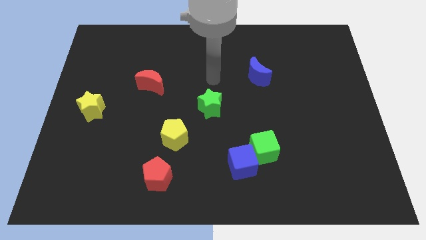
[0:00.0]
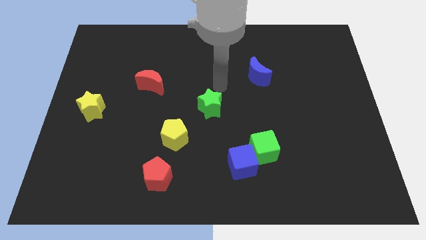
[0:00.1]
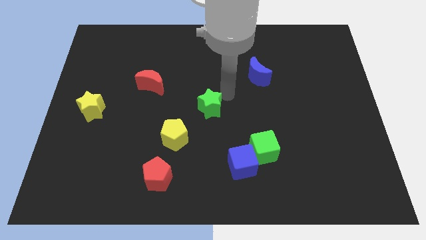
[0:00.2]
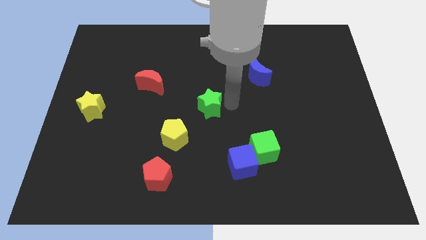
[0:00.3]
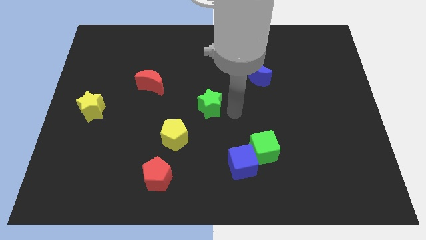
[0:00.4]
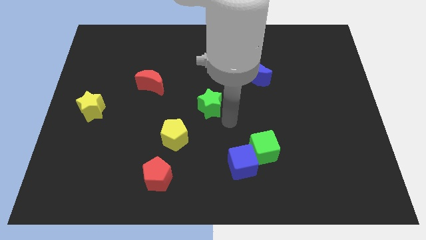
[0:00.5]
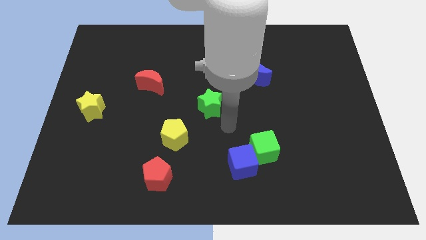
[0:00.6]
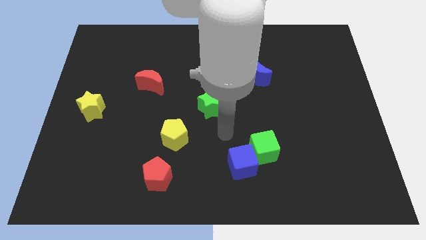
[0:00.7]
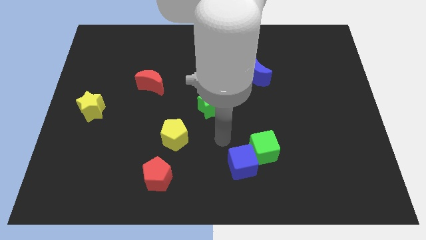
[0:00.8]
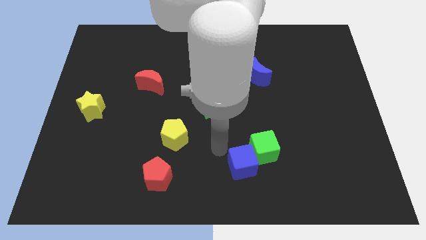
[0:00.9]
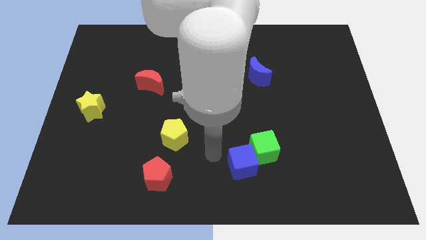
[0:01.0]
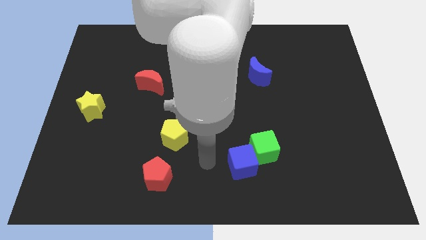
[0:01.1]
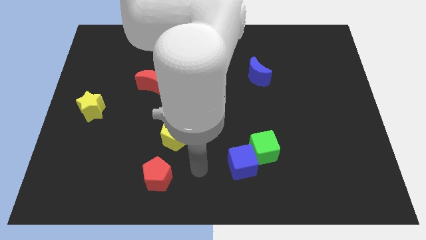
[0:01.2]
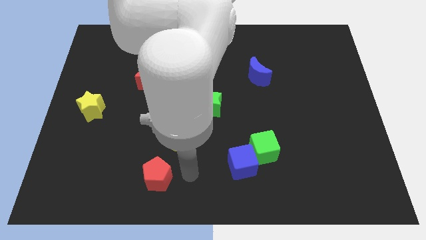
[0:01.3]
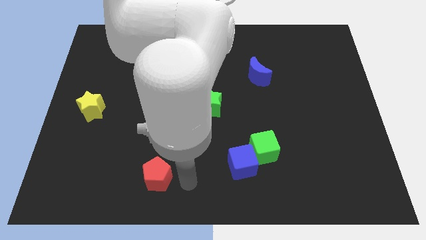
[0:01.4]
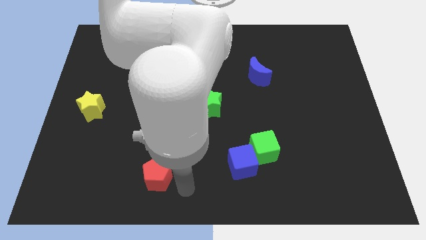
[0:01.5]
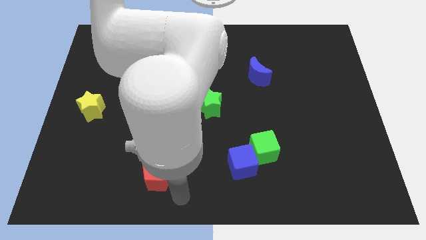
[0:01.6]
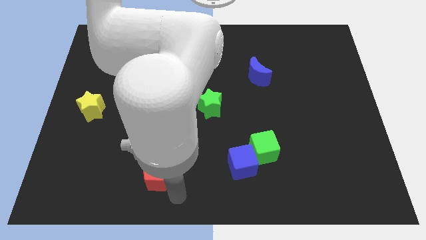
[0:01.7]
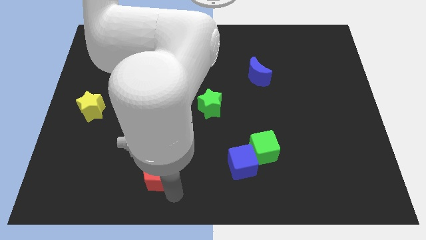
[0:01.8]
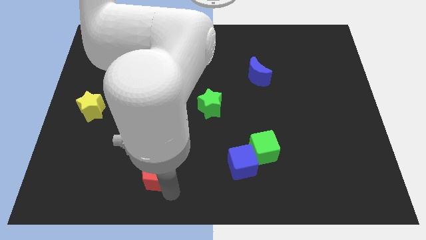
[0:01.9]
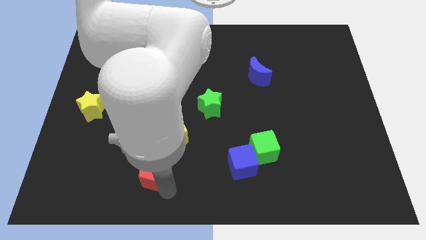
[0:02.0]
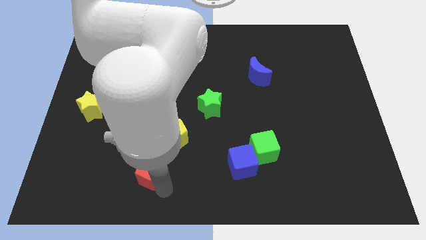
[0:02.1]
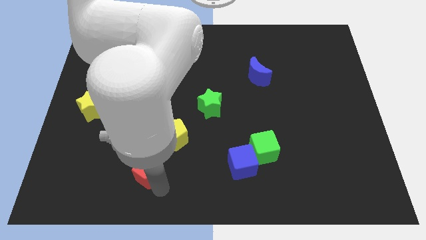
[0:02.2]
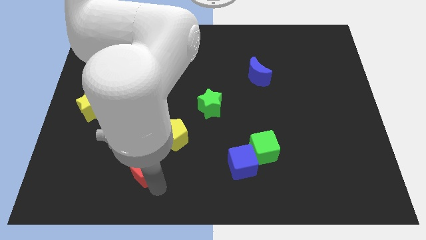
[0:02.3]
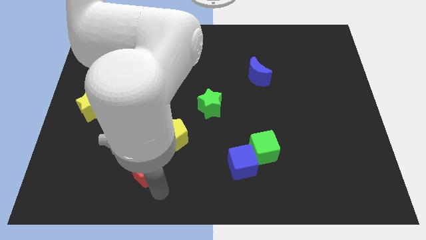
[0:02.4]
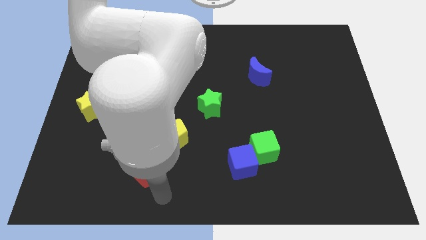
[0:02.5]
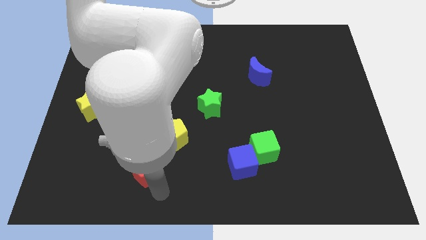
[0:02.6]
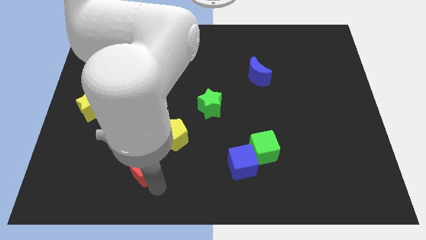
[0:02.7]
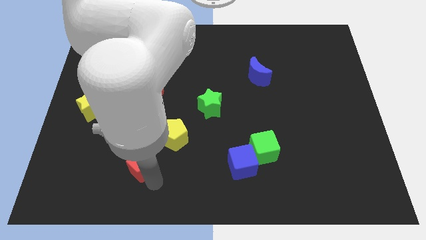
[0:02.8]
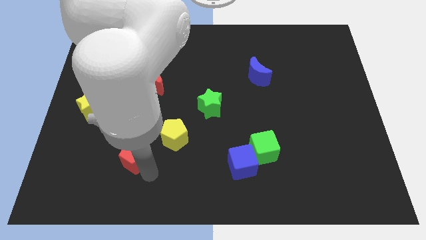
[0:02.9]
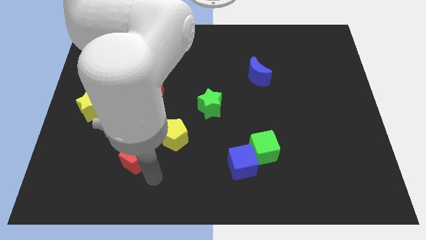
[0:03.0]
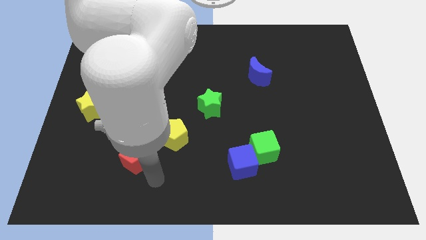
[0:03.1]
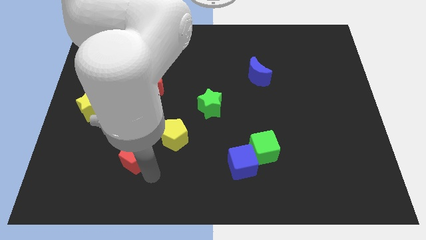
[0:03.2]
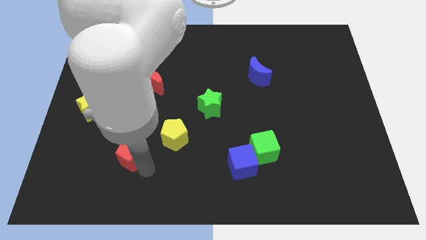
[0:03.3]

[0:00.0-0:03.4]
push the red pentagon upwards and to the left diagonally a bit

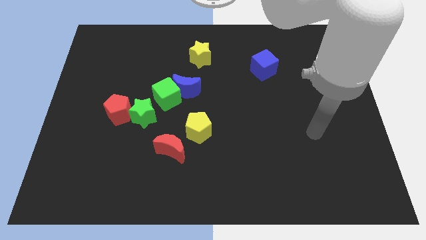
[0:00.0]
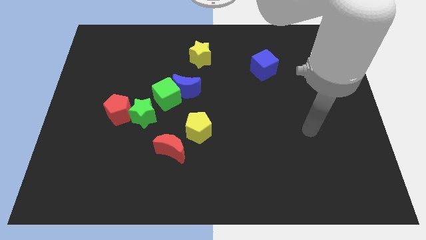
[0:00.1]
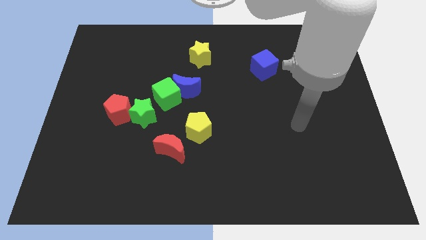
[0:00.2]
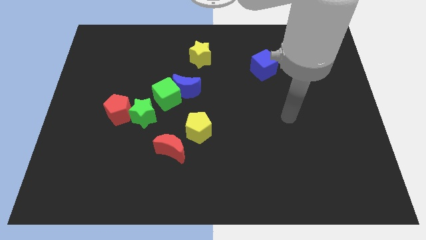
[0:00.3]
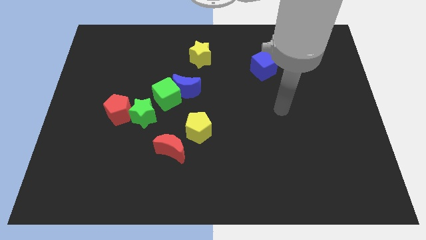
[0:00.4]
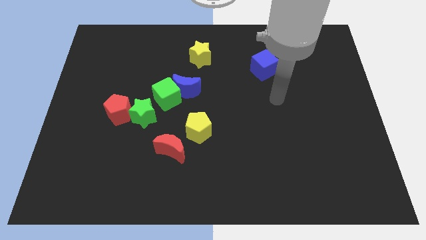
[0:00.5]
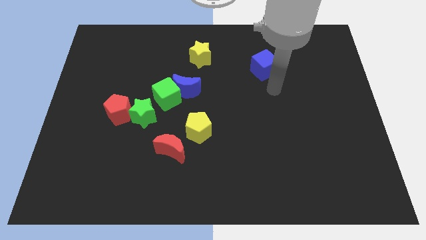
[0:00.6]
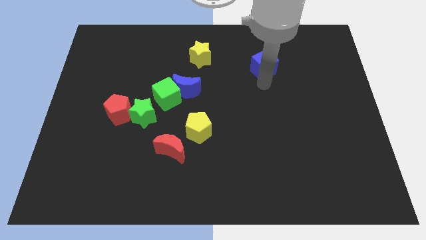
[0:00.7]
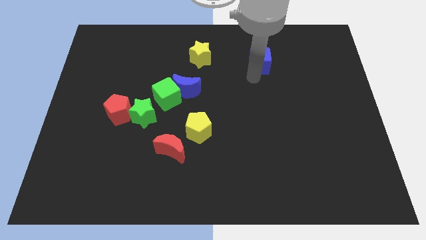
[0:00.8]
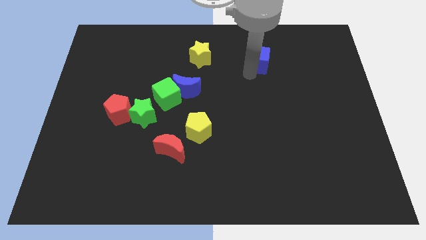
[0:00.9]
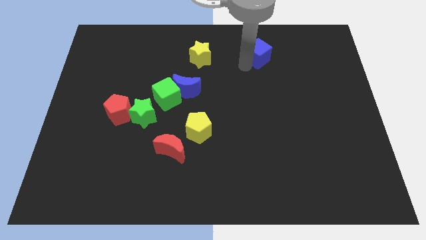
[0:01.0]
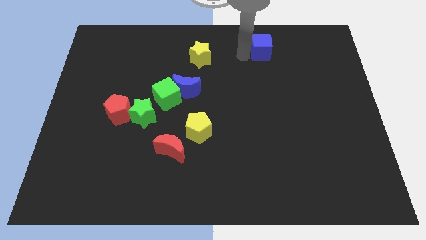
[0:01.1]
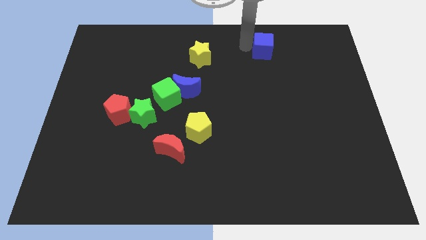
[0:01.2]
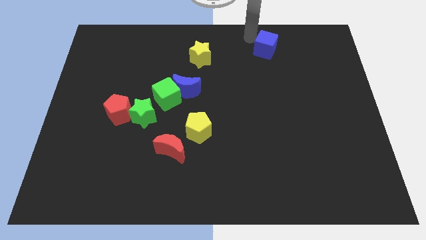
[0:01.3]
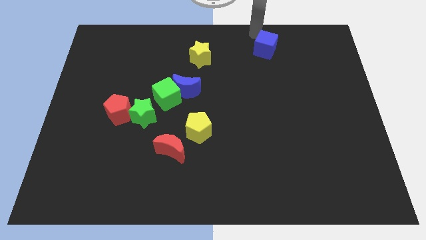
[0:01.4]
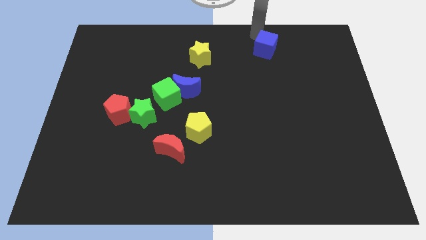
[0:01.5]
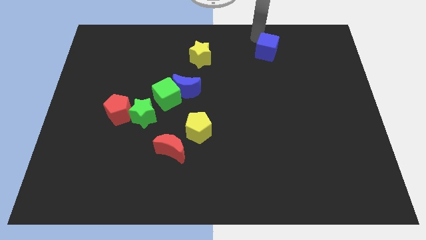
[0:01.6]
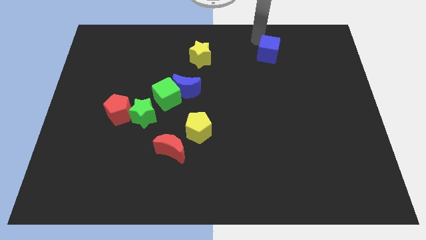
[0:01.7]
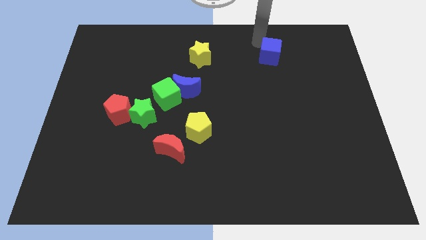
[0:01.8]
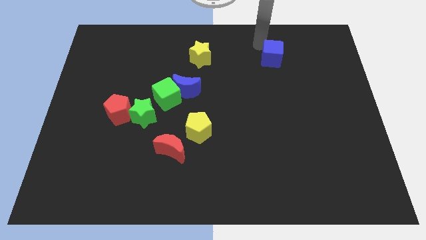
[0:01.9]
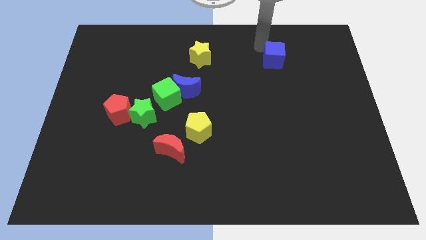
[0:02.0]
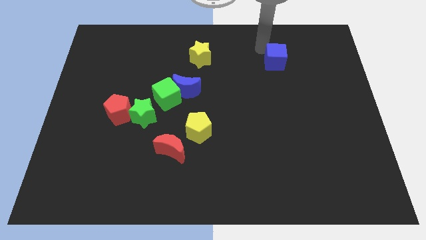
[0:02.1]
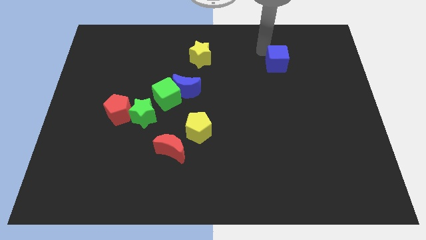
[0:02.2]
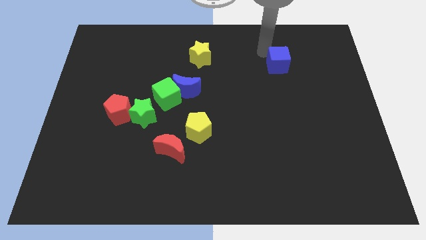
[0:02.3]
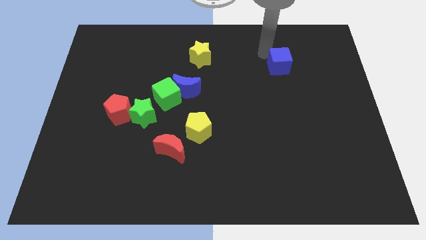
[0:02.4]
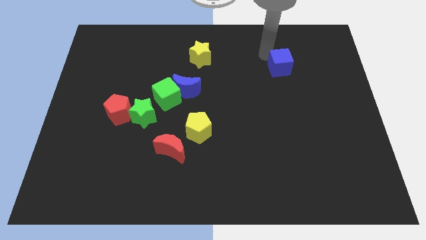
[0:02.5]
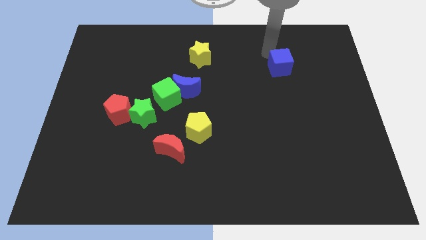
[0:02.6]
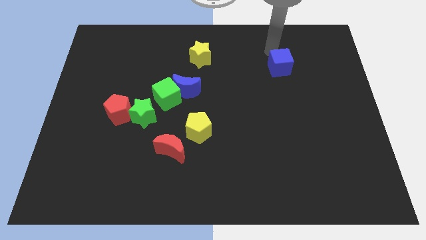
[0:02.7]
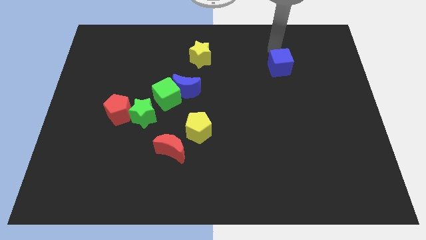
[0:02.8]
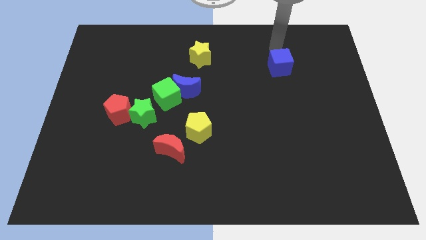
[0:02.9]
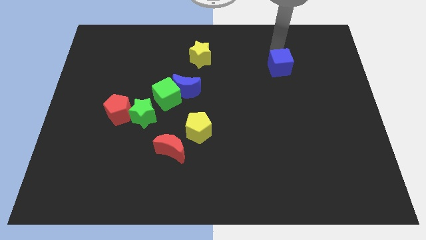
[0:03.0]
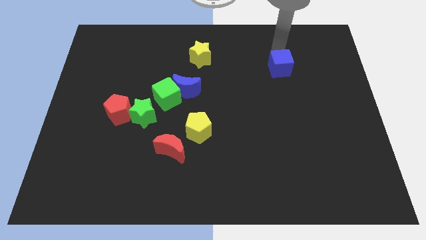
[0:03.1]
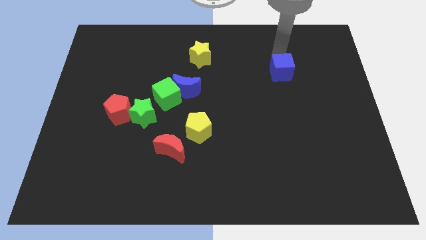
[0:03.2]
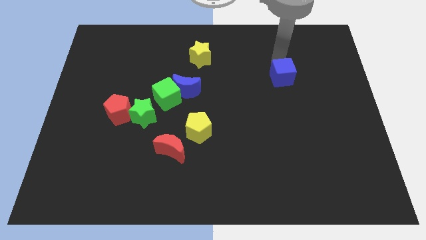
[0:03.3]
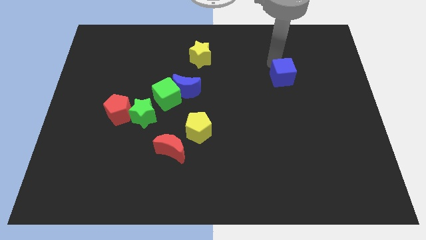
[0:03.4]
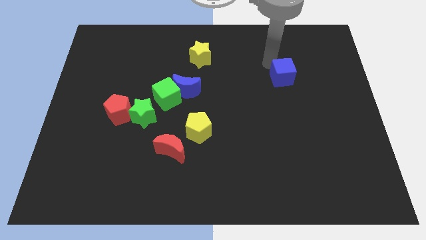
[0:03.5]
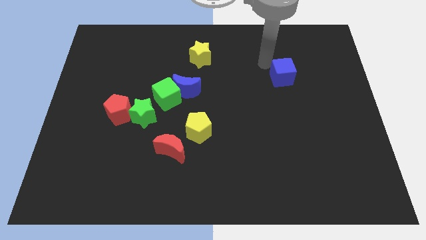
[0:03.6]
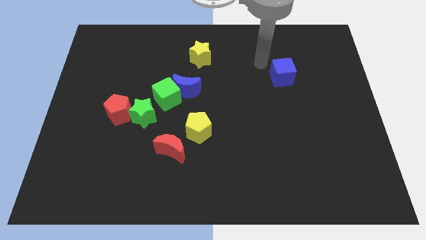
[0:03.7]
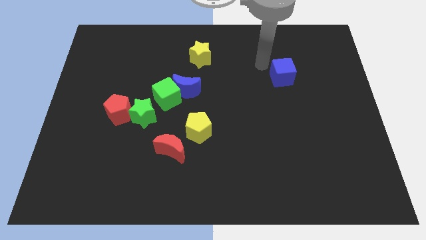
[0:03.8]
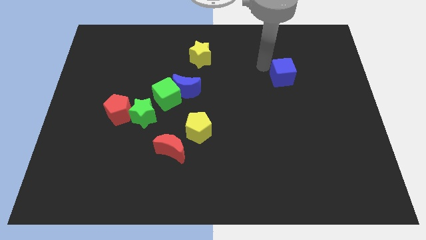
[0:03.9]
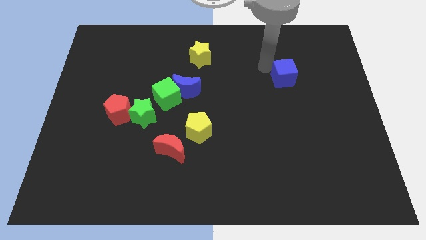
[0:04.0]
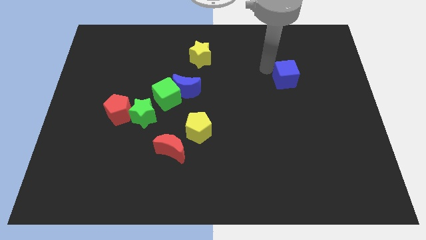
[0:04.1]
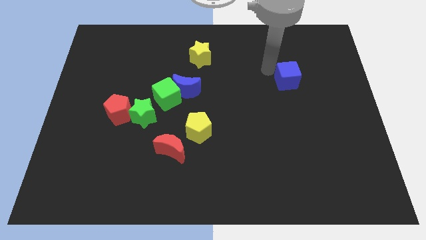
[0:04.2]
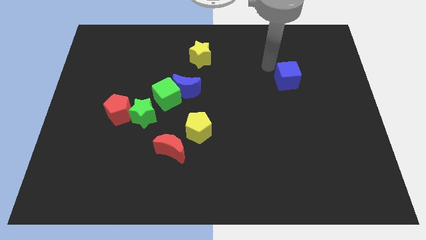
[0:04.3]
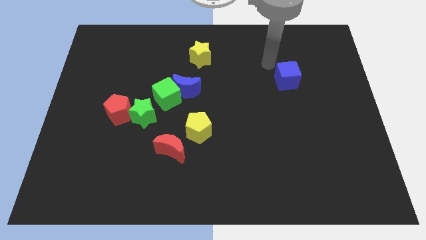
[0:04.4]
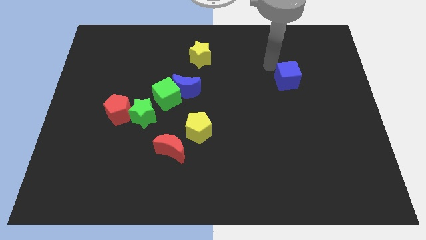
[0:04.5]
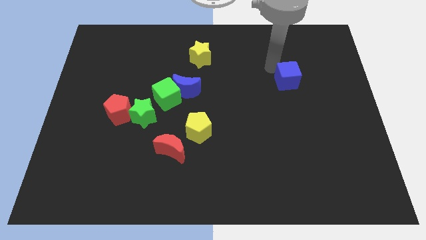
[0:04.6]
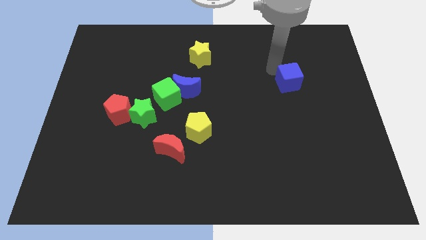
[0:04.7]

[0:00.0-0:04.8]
push the blue cube a bit down and to the right diagonally
